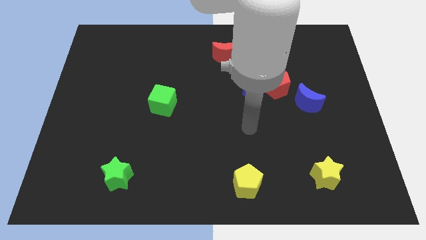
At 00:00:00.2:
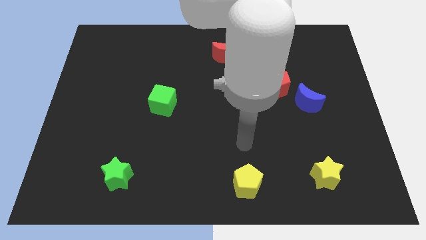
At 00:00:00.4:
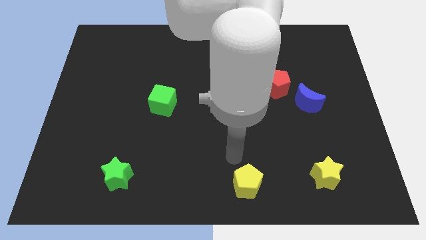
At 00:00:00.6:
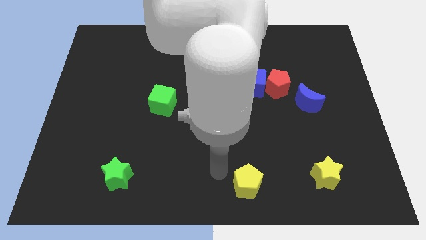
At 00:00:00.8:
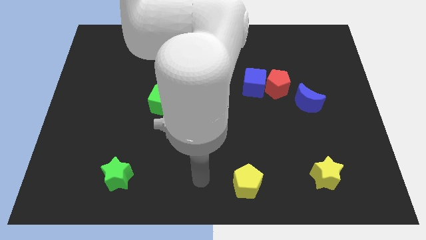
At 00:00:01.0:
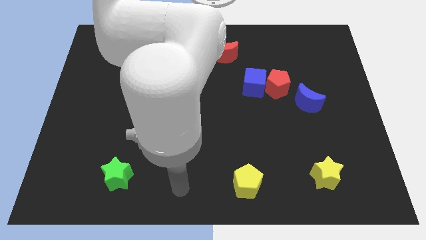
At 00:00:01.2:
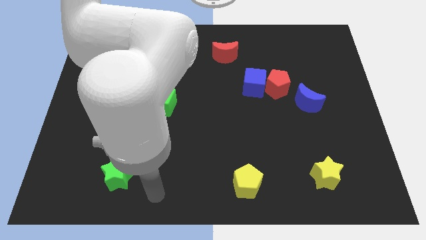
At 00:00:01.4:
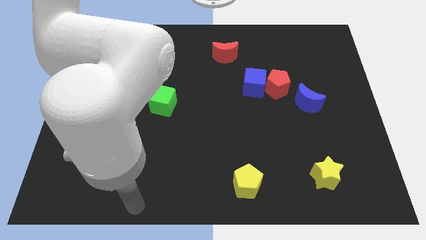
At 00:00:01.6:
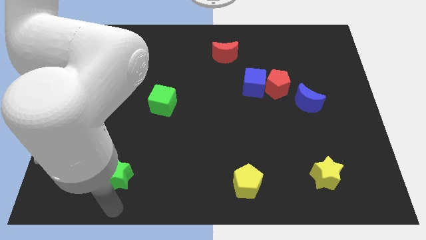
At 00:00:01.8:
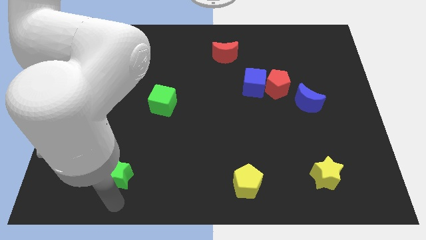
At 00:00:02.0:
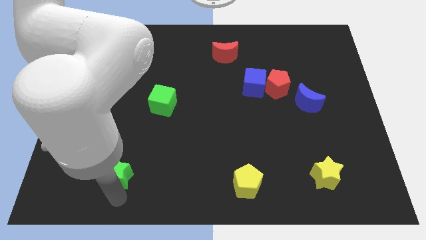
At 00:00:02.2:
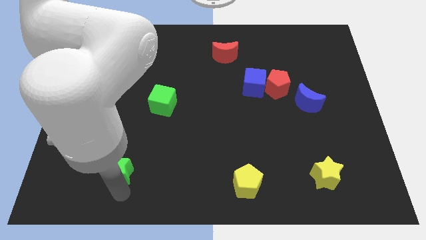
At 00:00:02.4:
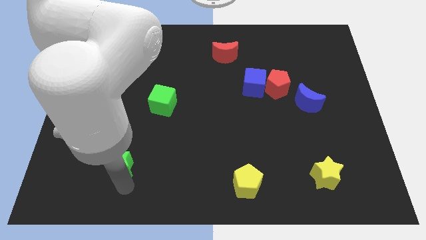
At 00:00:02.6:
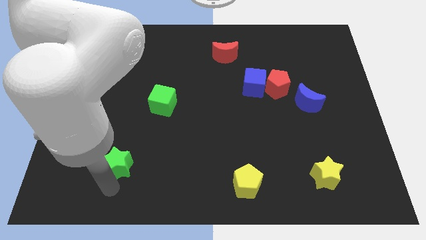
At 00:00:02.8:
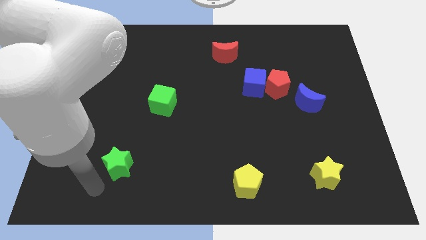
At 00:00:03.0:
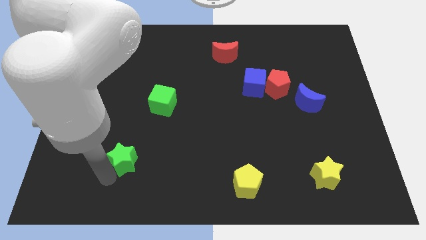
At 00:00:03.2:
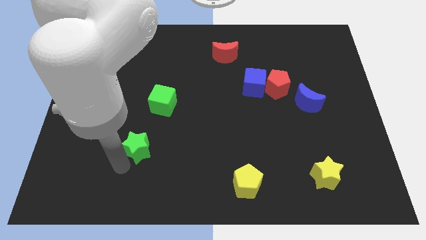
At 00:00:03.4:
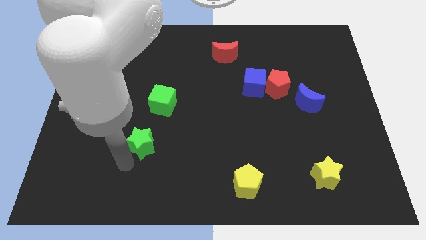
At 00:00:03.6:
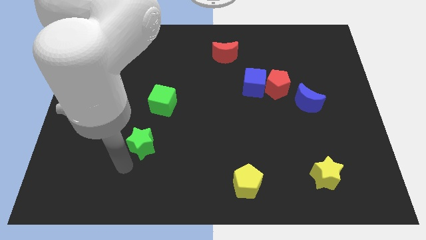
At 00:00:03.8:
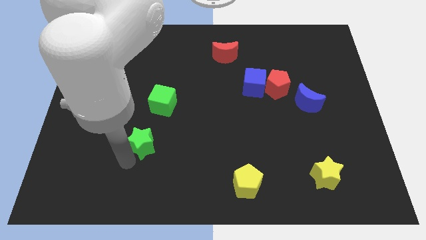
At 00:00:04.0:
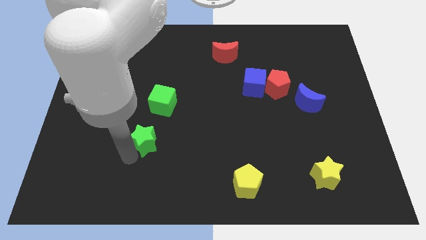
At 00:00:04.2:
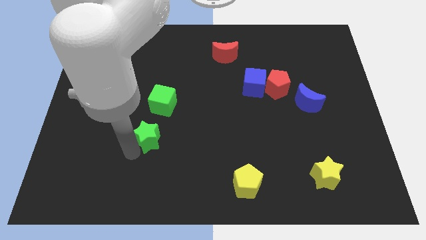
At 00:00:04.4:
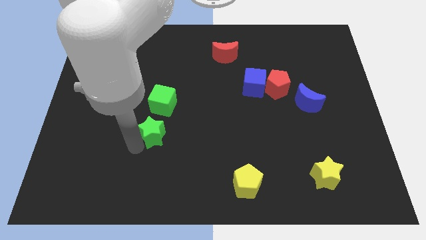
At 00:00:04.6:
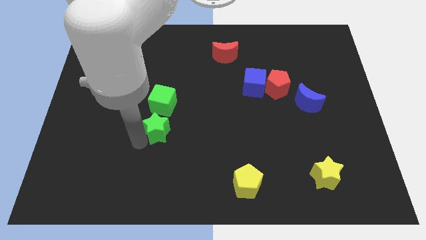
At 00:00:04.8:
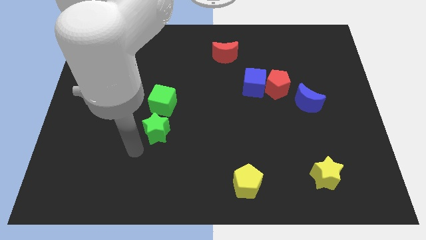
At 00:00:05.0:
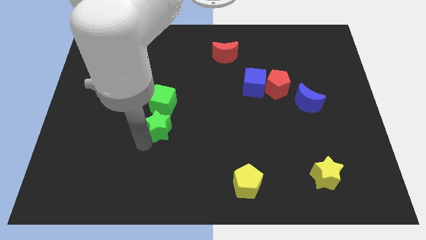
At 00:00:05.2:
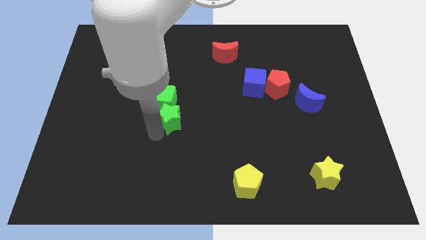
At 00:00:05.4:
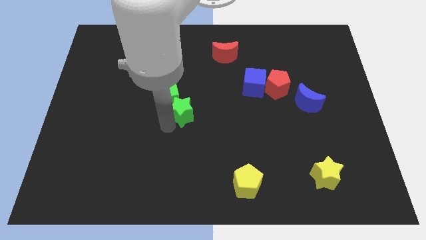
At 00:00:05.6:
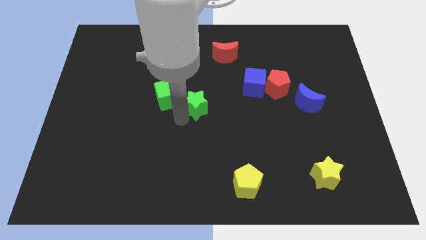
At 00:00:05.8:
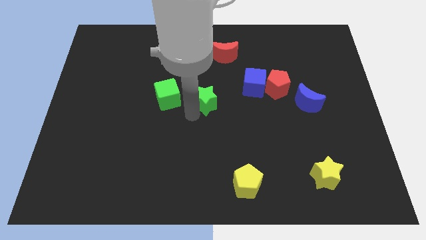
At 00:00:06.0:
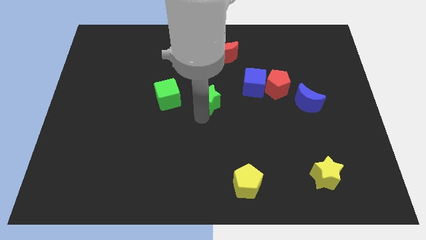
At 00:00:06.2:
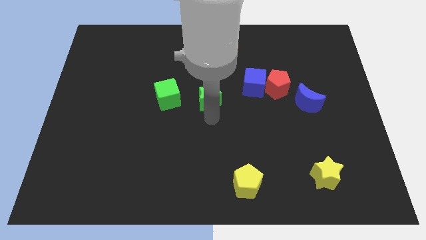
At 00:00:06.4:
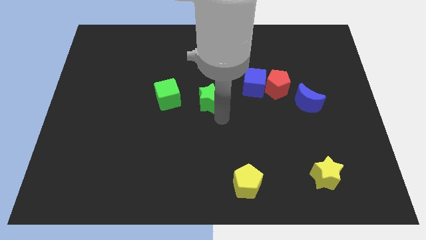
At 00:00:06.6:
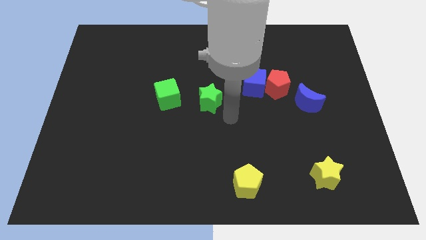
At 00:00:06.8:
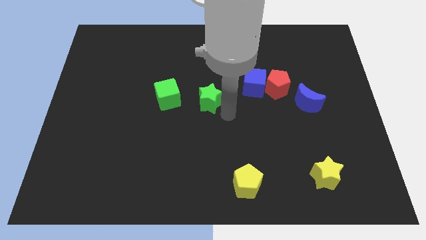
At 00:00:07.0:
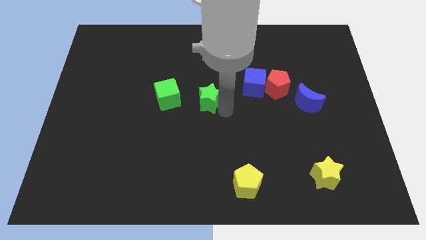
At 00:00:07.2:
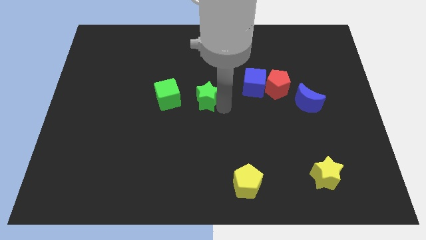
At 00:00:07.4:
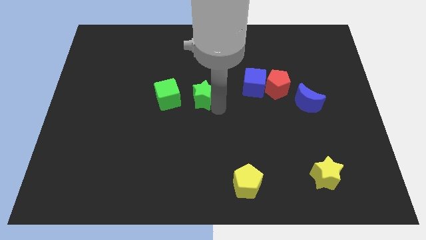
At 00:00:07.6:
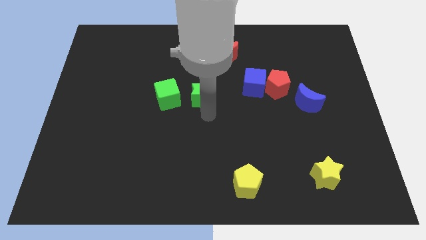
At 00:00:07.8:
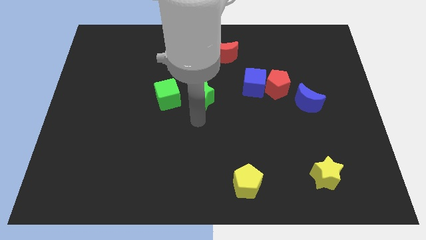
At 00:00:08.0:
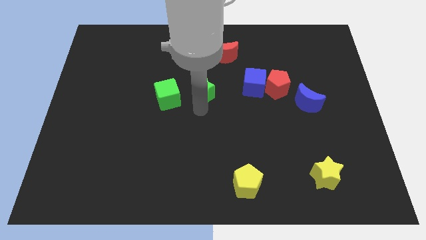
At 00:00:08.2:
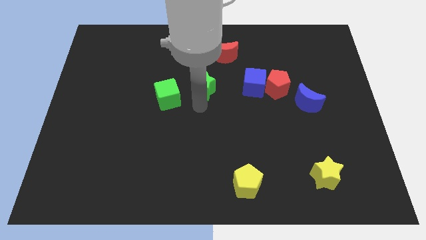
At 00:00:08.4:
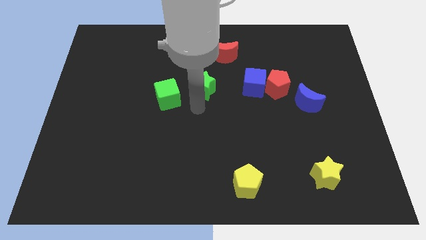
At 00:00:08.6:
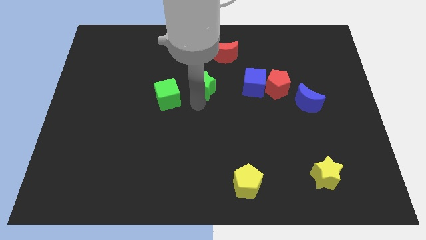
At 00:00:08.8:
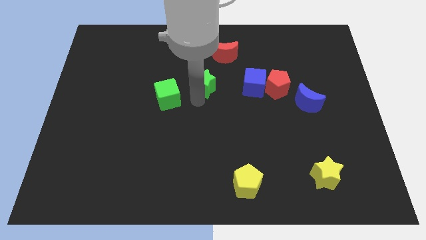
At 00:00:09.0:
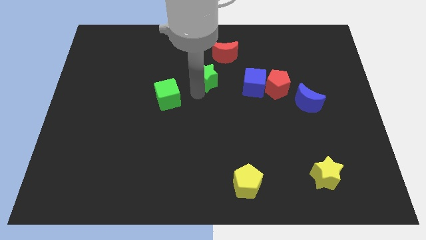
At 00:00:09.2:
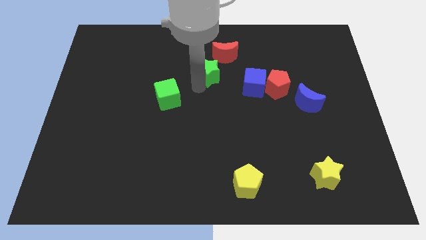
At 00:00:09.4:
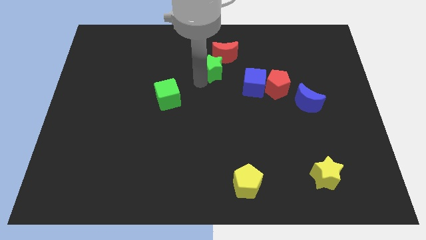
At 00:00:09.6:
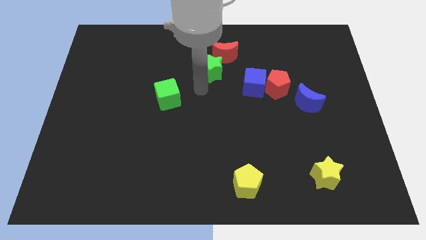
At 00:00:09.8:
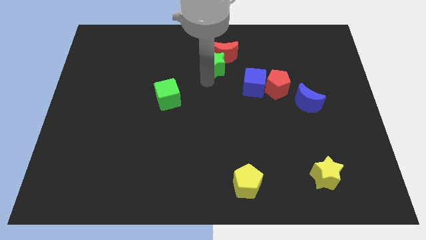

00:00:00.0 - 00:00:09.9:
push the green star towards the red moon

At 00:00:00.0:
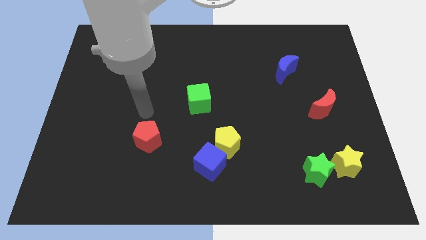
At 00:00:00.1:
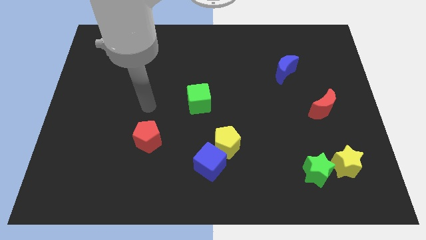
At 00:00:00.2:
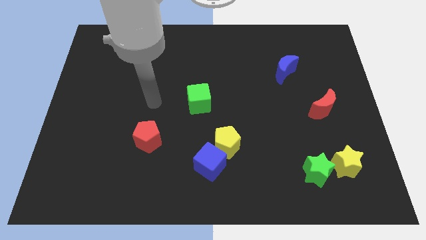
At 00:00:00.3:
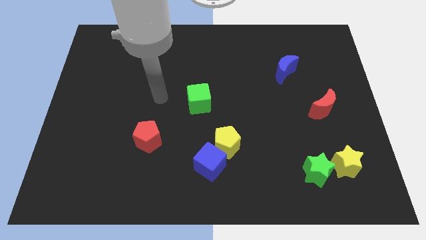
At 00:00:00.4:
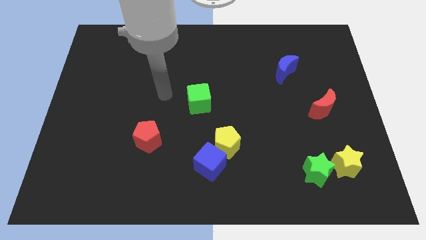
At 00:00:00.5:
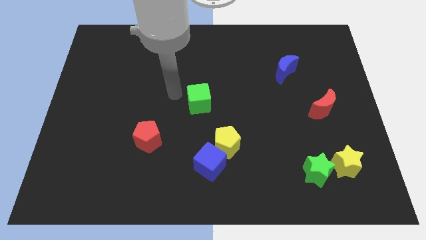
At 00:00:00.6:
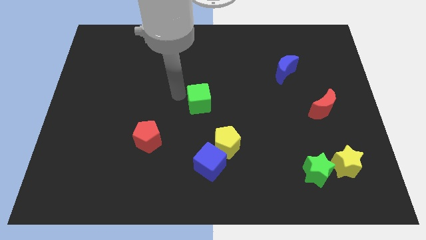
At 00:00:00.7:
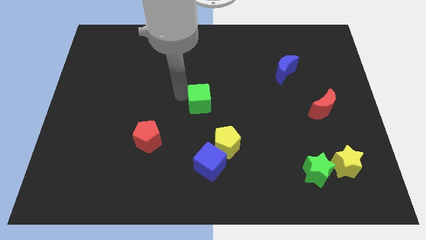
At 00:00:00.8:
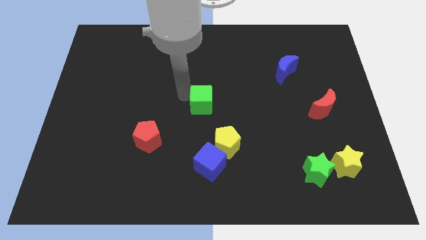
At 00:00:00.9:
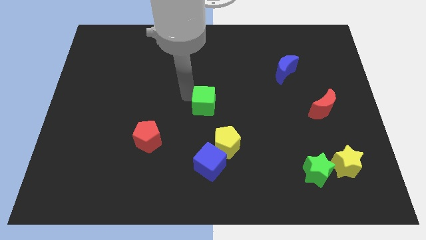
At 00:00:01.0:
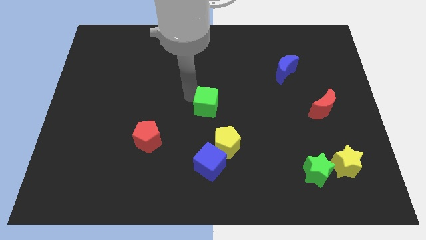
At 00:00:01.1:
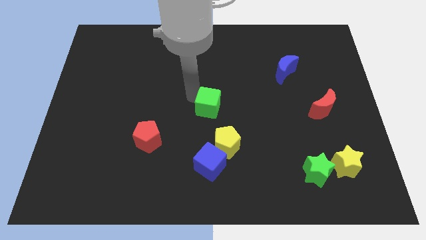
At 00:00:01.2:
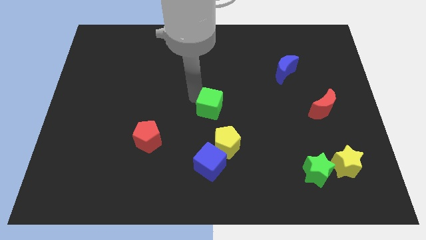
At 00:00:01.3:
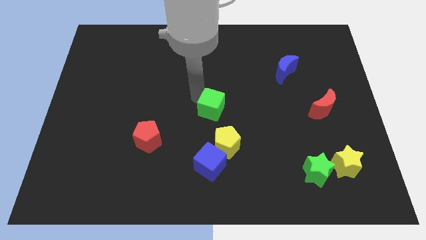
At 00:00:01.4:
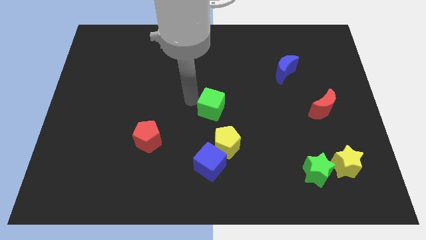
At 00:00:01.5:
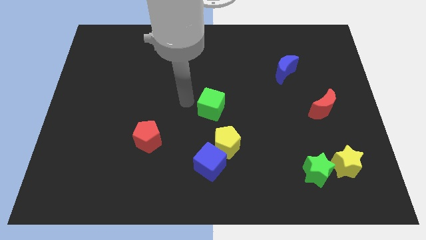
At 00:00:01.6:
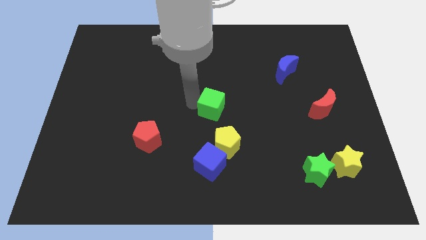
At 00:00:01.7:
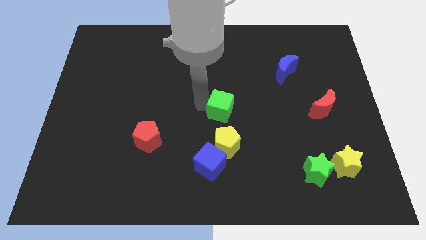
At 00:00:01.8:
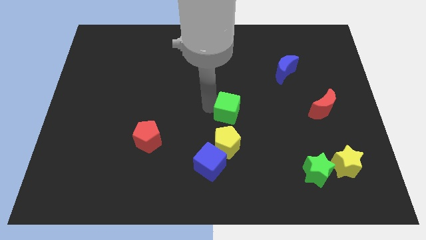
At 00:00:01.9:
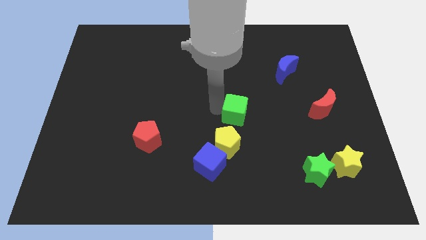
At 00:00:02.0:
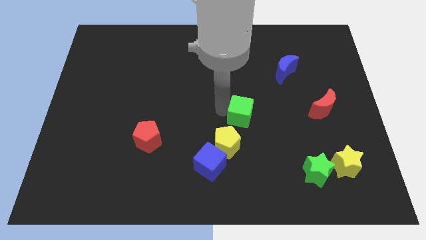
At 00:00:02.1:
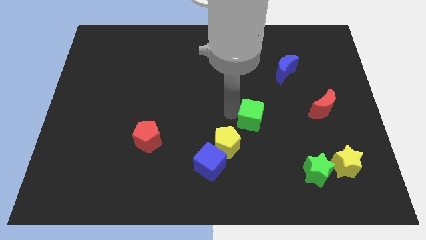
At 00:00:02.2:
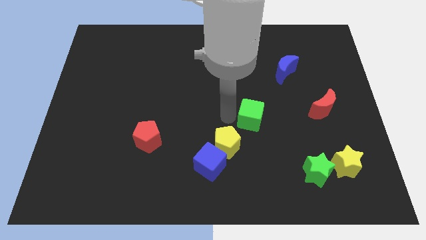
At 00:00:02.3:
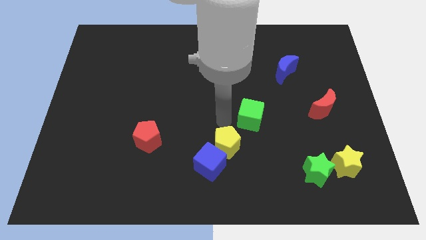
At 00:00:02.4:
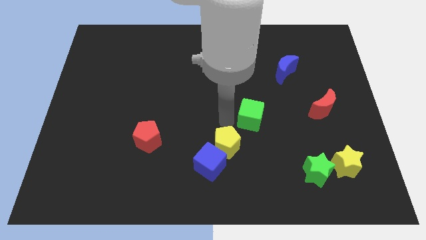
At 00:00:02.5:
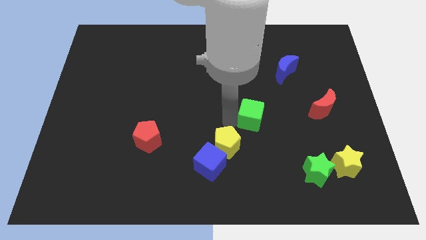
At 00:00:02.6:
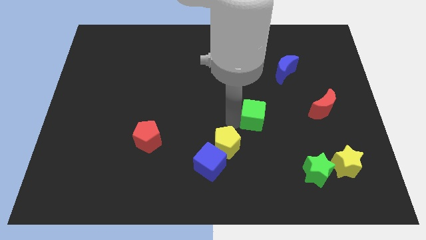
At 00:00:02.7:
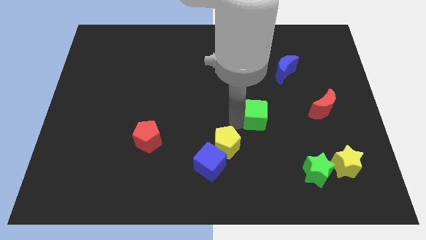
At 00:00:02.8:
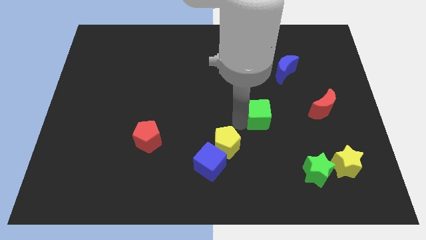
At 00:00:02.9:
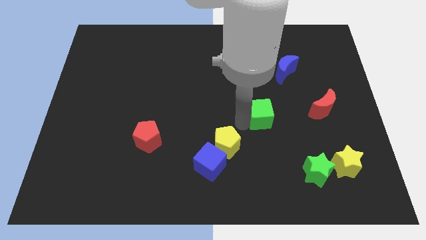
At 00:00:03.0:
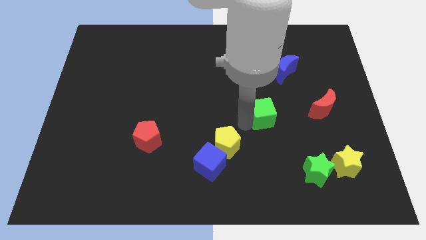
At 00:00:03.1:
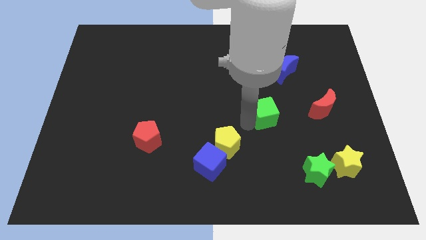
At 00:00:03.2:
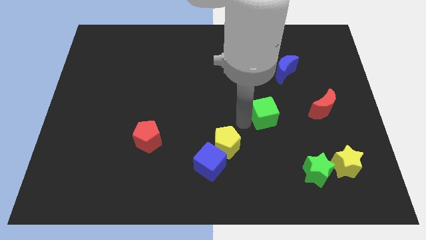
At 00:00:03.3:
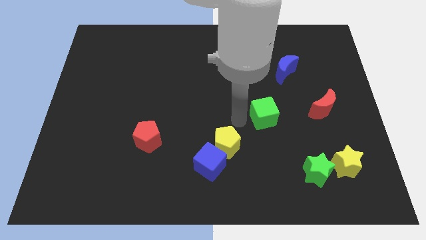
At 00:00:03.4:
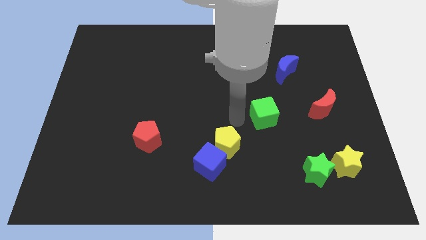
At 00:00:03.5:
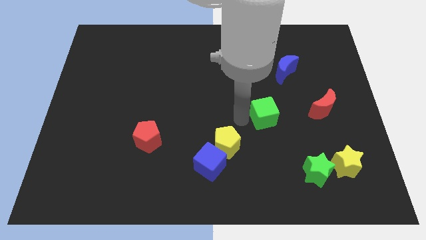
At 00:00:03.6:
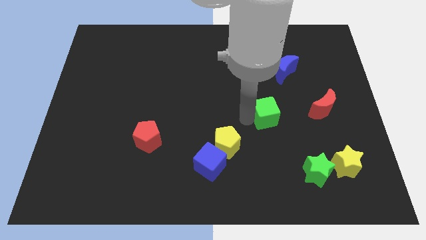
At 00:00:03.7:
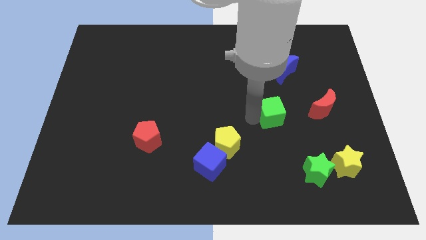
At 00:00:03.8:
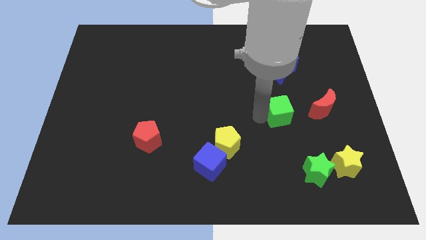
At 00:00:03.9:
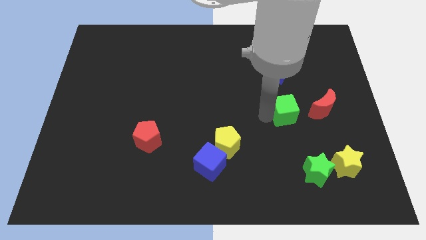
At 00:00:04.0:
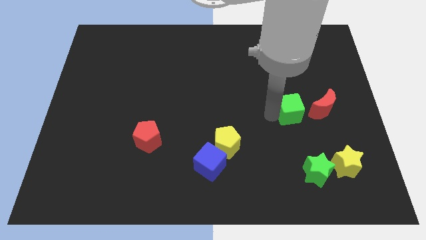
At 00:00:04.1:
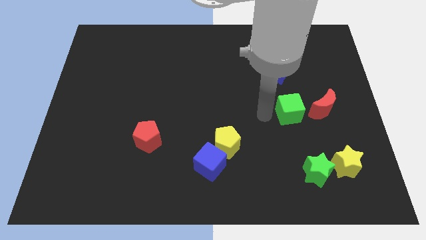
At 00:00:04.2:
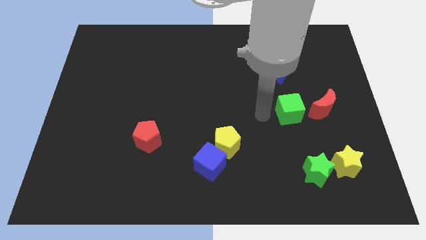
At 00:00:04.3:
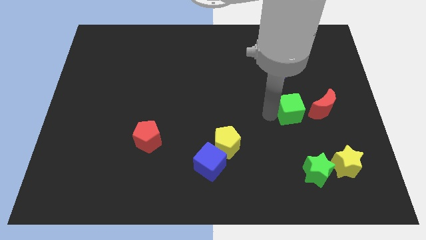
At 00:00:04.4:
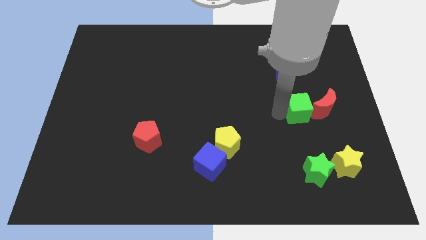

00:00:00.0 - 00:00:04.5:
push the green cube to the red moon
